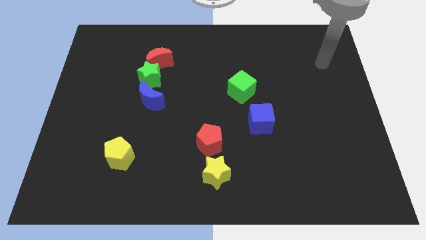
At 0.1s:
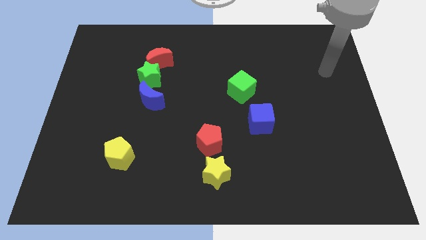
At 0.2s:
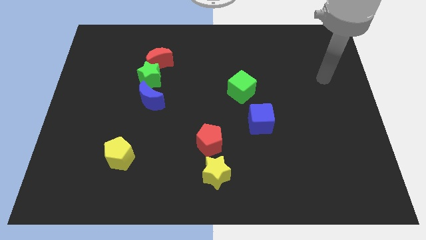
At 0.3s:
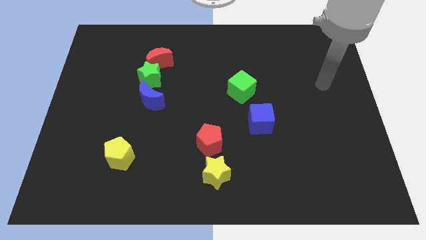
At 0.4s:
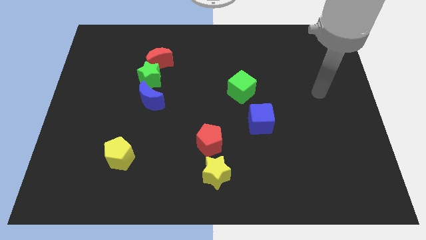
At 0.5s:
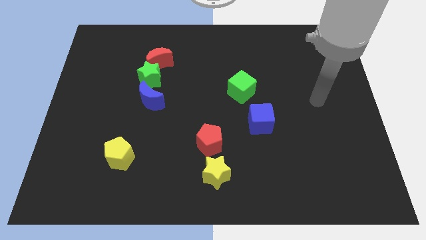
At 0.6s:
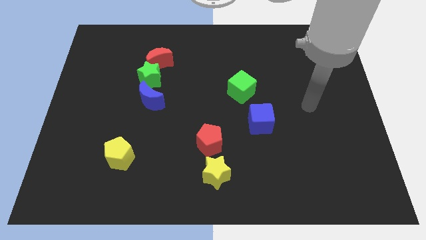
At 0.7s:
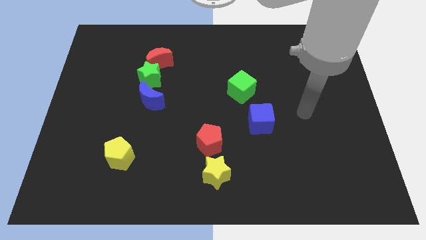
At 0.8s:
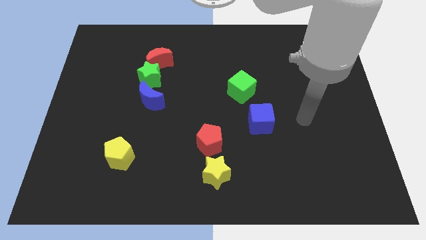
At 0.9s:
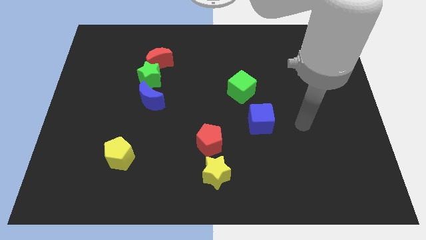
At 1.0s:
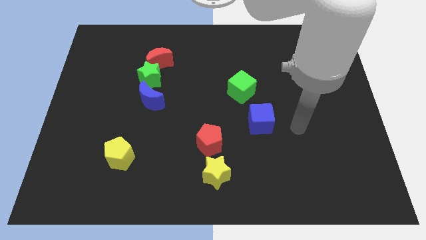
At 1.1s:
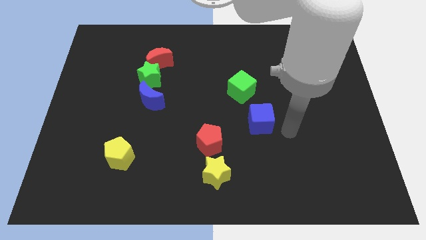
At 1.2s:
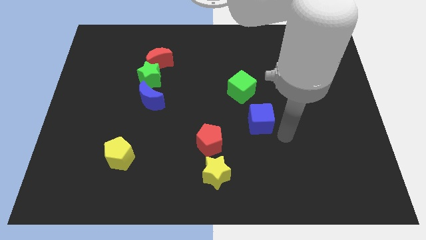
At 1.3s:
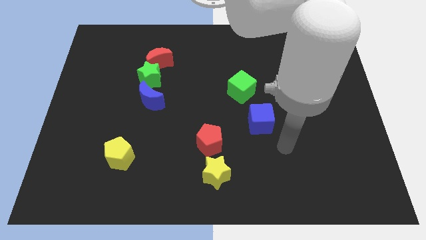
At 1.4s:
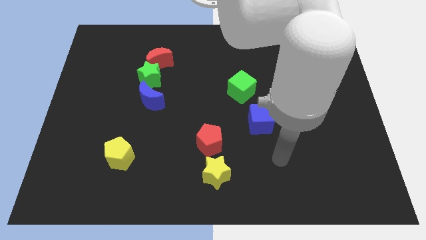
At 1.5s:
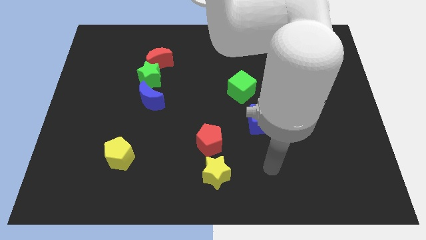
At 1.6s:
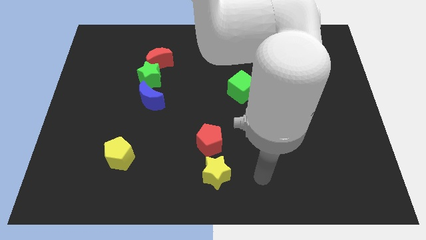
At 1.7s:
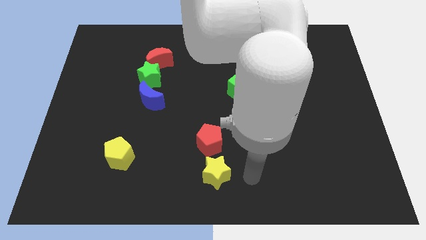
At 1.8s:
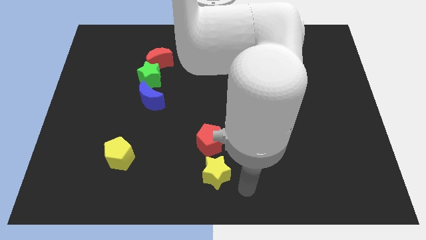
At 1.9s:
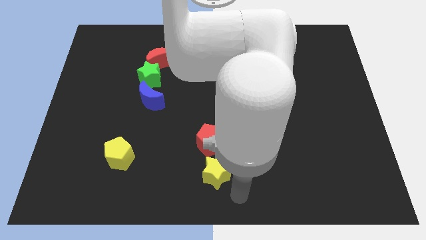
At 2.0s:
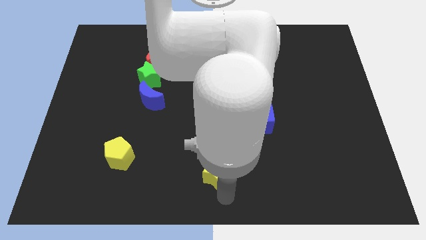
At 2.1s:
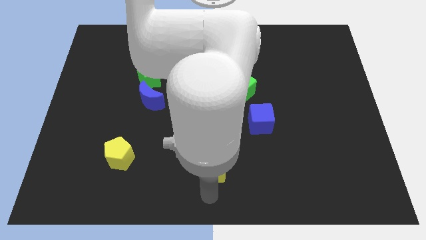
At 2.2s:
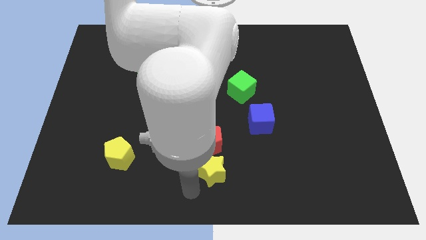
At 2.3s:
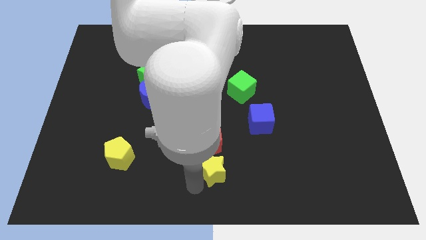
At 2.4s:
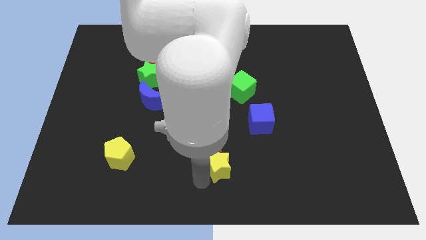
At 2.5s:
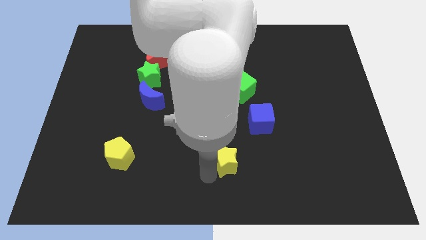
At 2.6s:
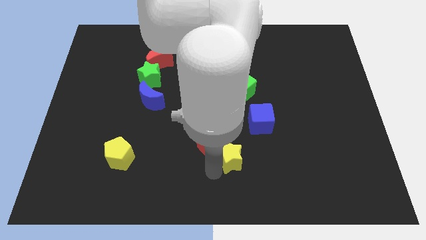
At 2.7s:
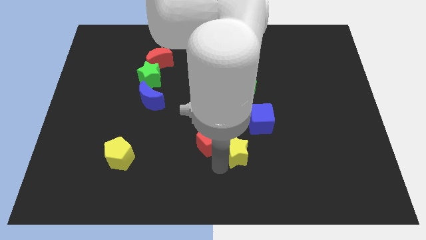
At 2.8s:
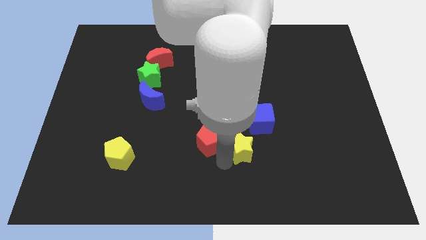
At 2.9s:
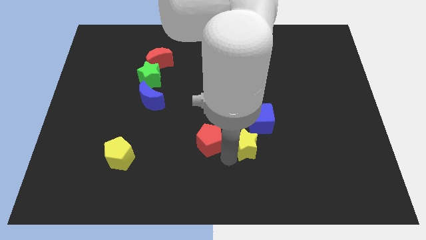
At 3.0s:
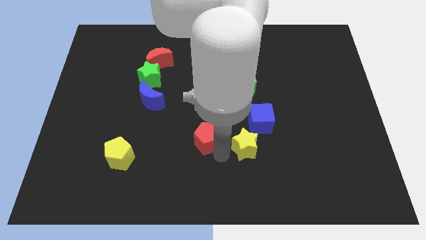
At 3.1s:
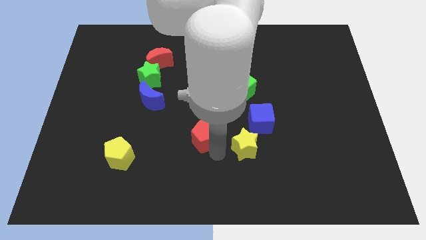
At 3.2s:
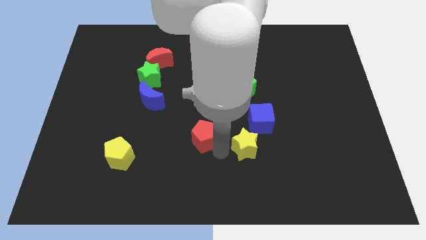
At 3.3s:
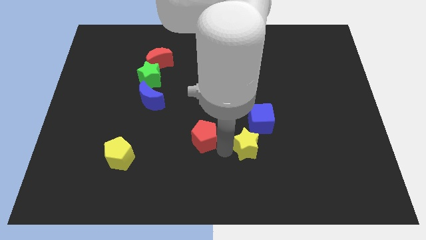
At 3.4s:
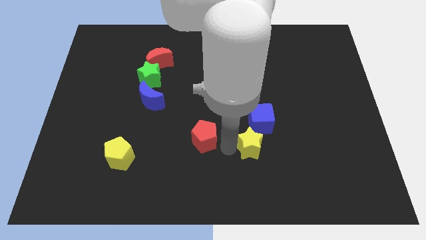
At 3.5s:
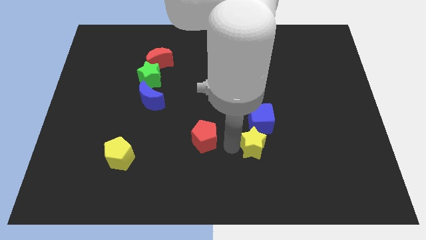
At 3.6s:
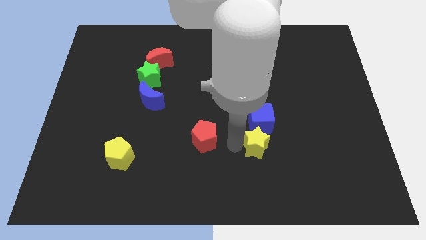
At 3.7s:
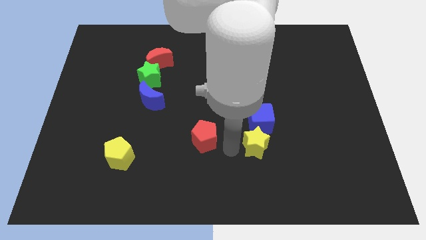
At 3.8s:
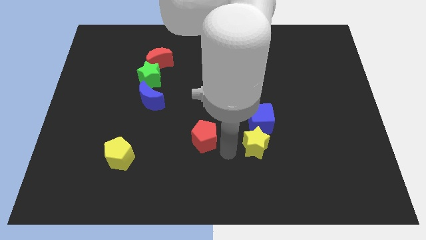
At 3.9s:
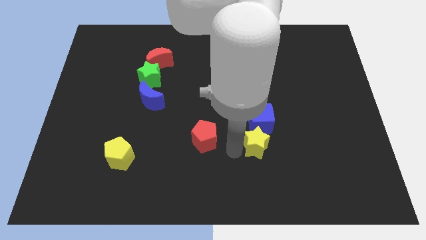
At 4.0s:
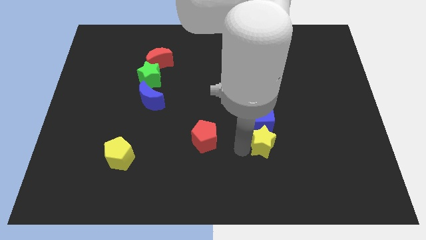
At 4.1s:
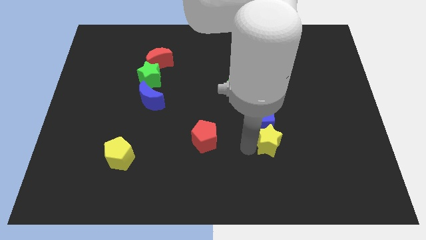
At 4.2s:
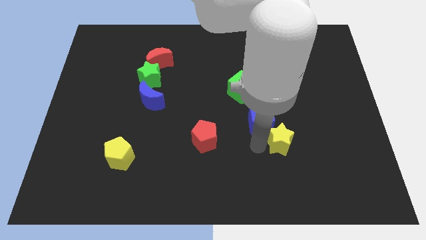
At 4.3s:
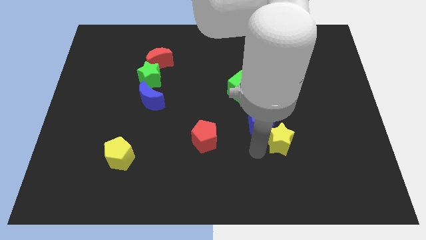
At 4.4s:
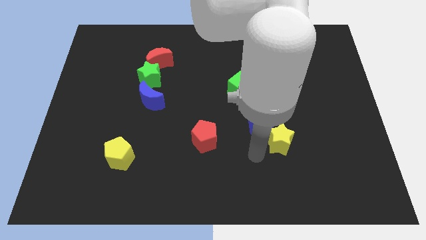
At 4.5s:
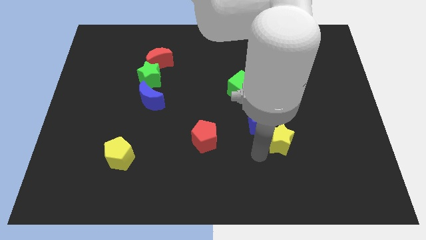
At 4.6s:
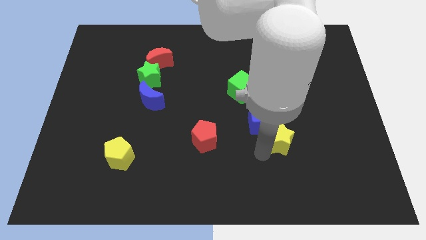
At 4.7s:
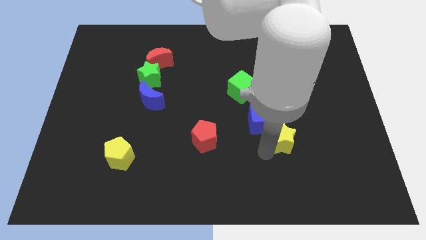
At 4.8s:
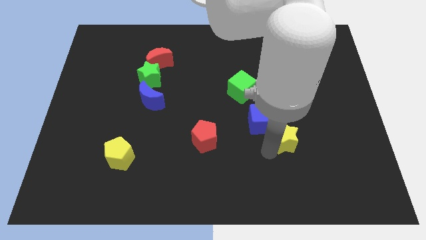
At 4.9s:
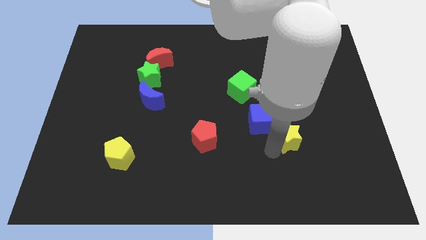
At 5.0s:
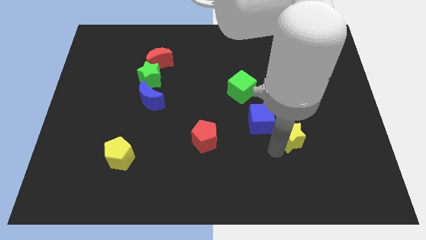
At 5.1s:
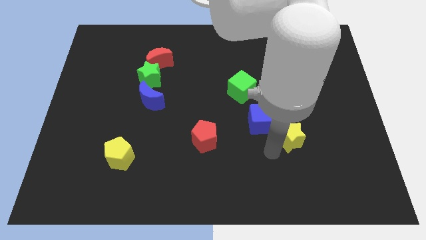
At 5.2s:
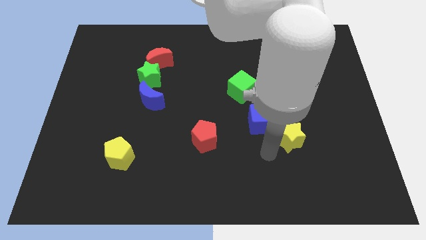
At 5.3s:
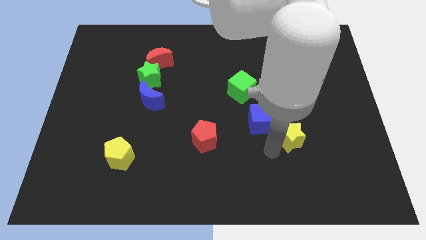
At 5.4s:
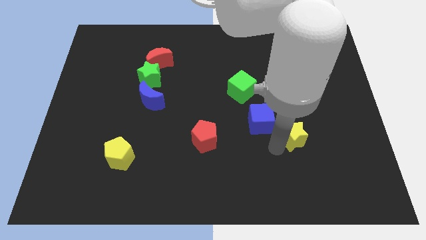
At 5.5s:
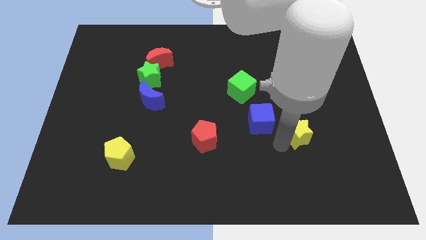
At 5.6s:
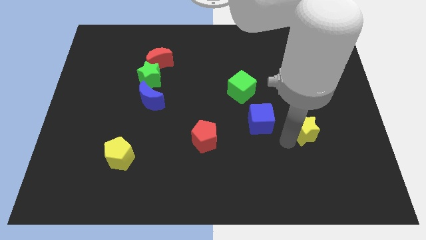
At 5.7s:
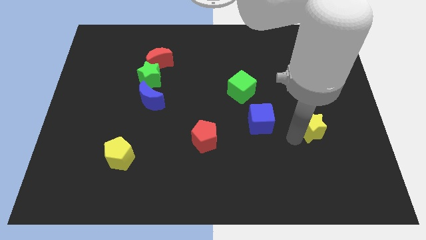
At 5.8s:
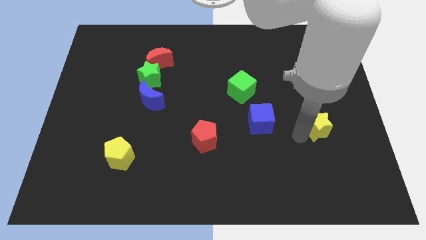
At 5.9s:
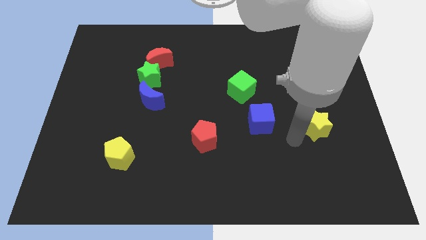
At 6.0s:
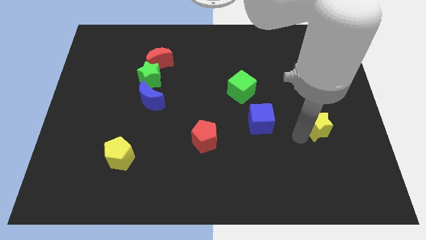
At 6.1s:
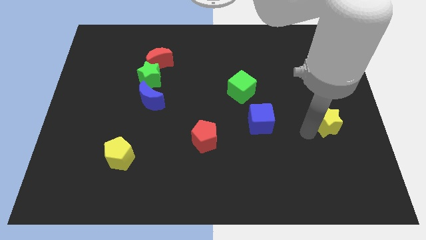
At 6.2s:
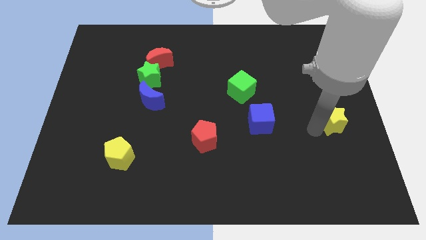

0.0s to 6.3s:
slide the yellow star to the right side
